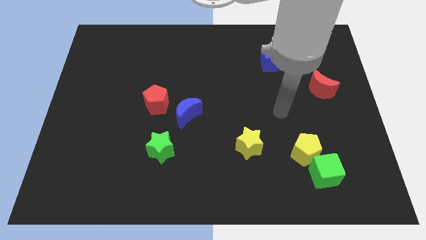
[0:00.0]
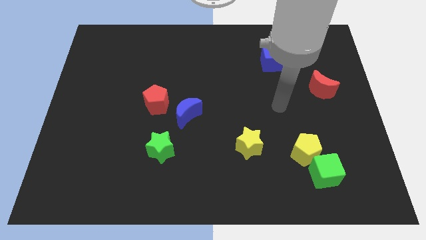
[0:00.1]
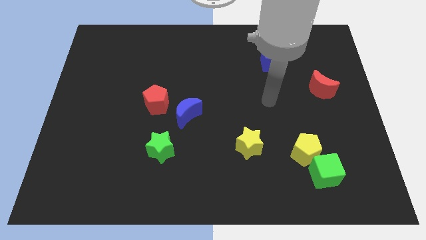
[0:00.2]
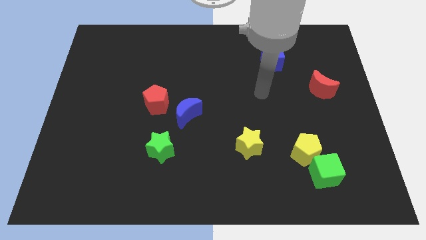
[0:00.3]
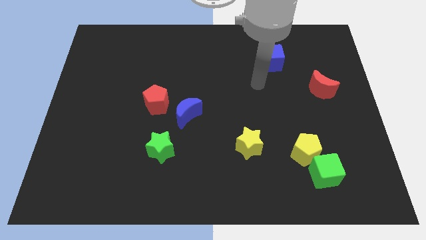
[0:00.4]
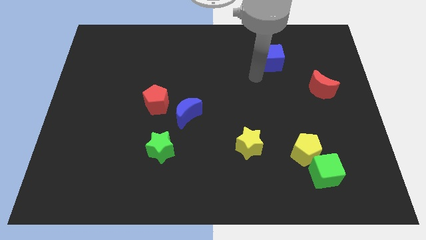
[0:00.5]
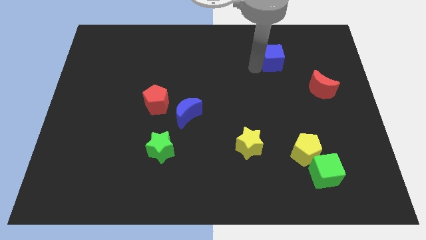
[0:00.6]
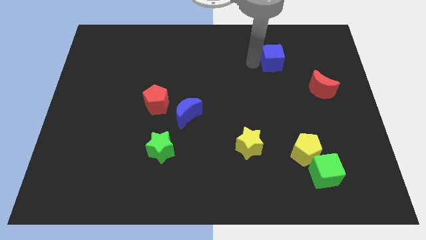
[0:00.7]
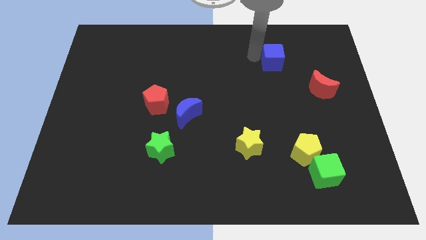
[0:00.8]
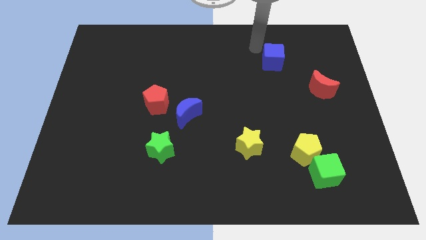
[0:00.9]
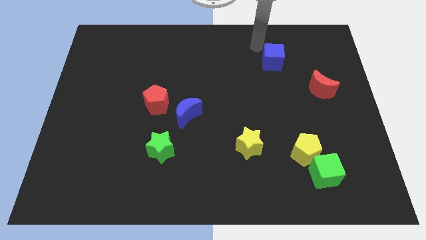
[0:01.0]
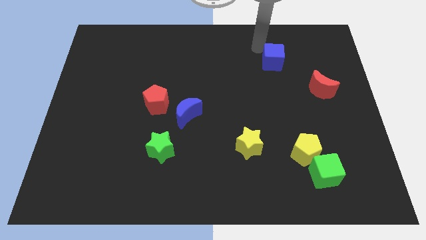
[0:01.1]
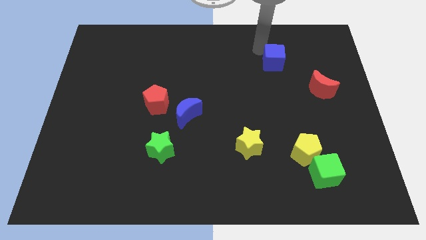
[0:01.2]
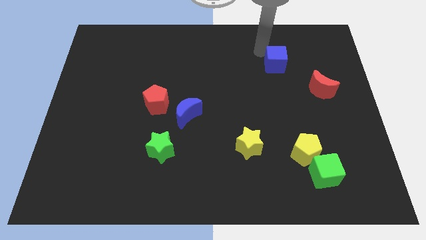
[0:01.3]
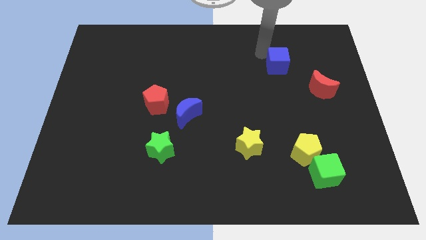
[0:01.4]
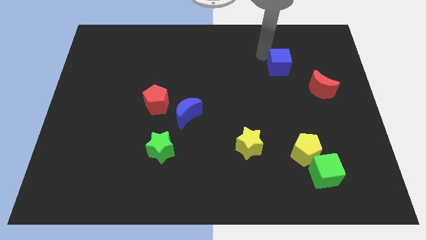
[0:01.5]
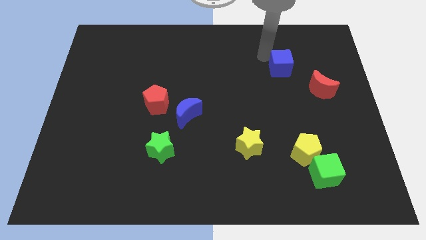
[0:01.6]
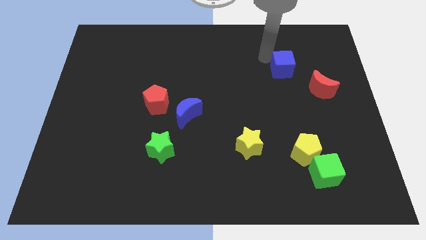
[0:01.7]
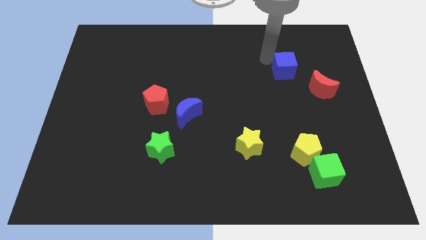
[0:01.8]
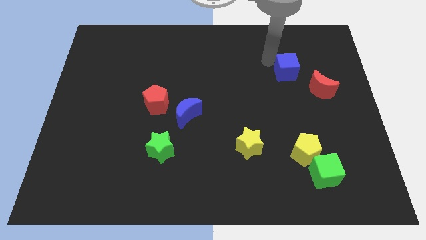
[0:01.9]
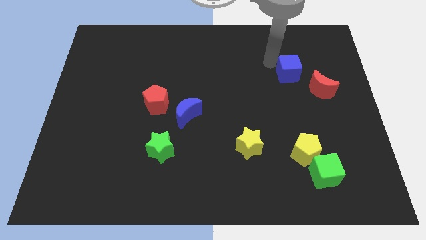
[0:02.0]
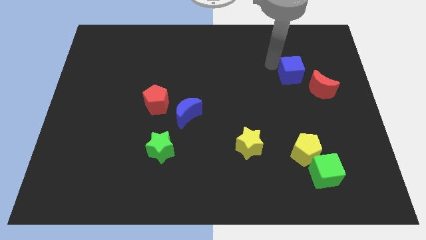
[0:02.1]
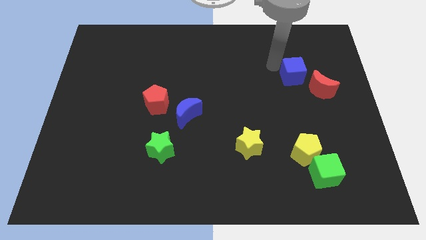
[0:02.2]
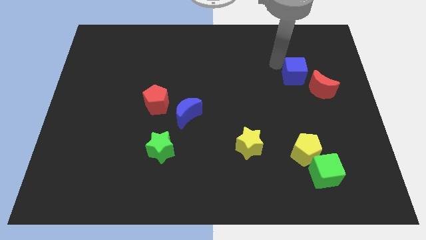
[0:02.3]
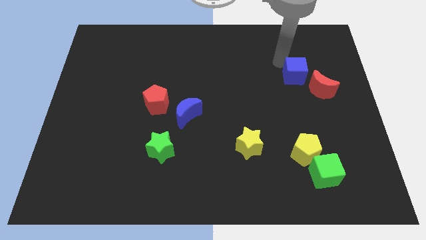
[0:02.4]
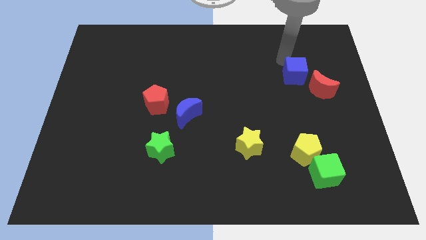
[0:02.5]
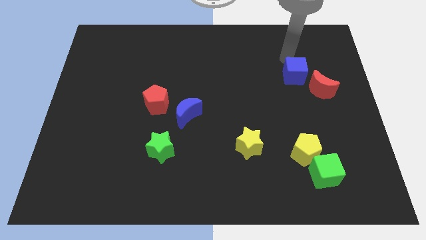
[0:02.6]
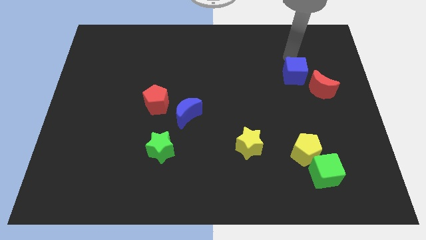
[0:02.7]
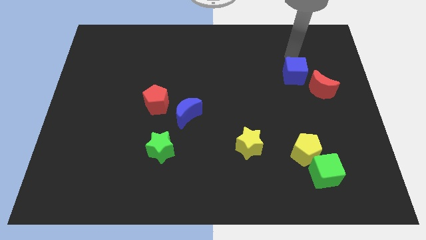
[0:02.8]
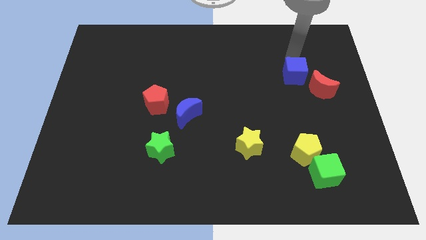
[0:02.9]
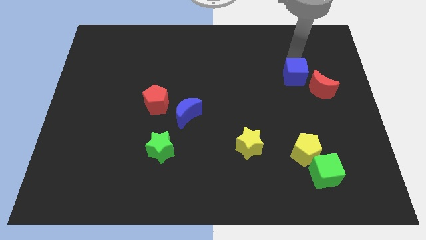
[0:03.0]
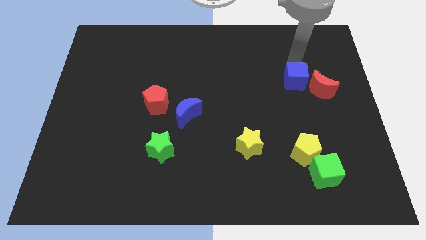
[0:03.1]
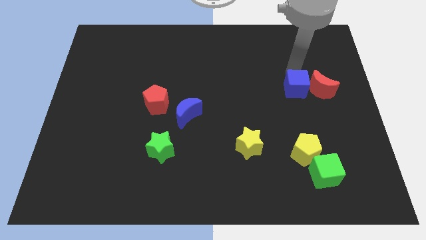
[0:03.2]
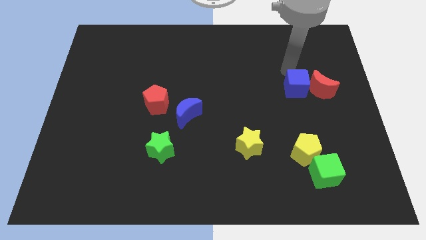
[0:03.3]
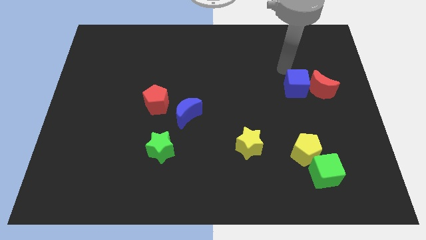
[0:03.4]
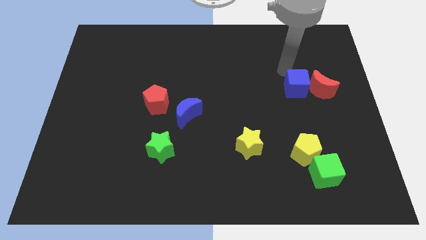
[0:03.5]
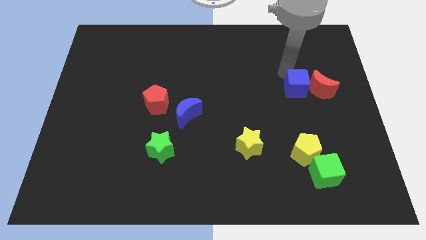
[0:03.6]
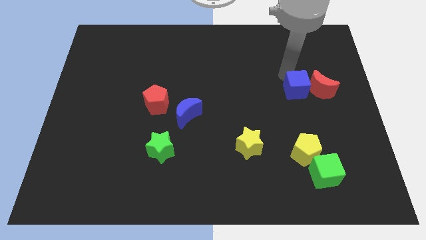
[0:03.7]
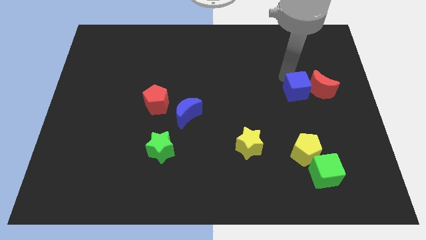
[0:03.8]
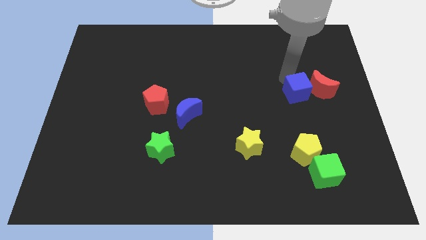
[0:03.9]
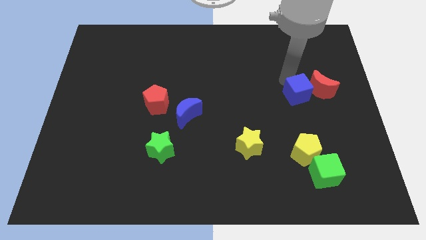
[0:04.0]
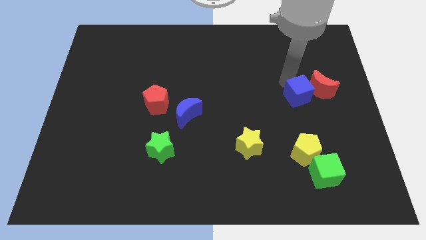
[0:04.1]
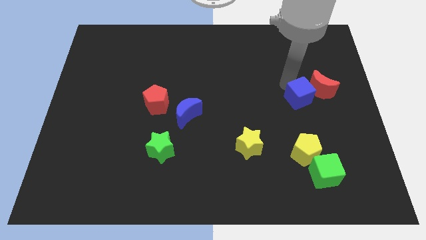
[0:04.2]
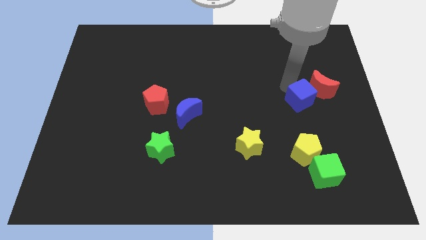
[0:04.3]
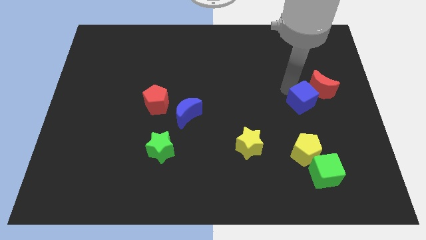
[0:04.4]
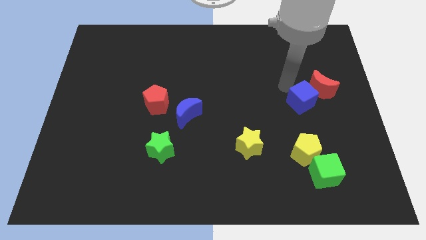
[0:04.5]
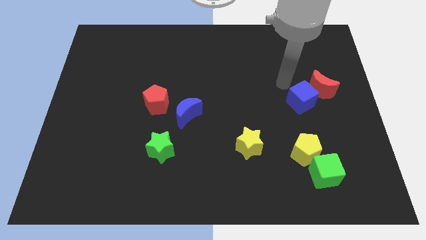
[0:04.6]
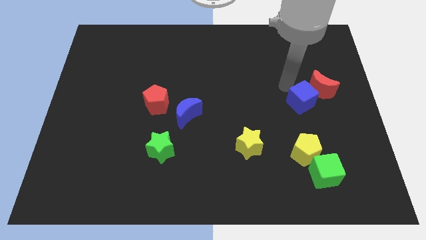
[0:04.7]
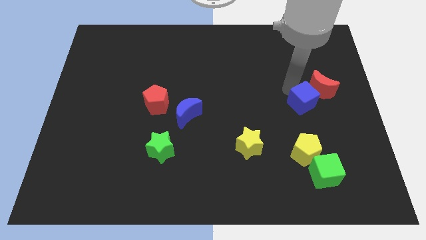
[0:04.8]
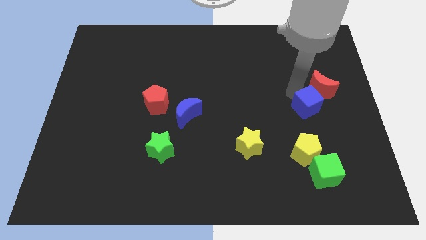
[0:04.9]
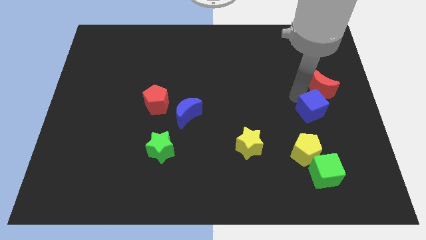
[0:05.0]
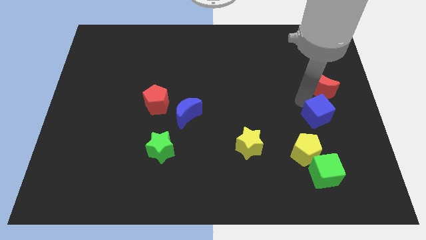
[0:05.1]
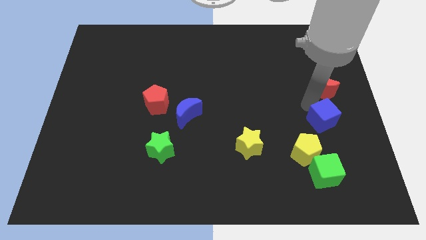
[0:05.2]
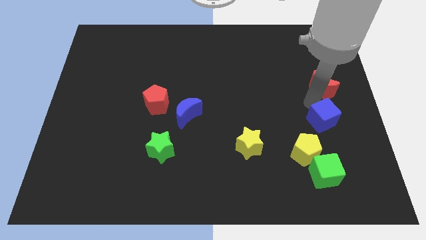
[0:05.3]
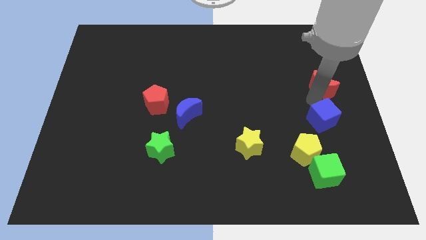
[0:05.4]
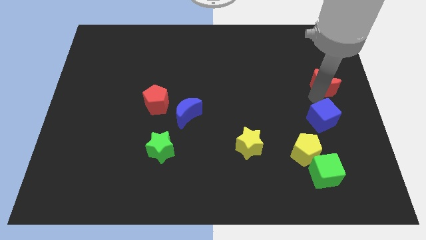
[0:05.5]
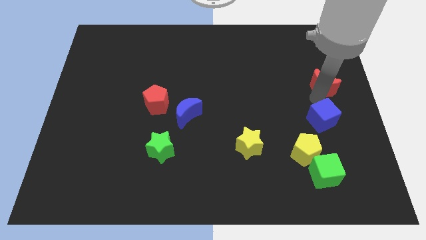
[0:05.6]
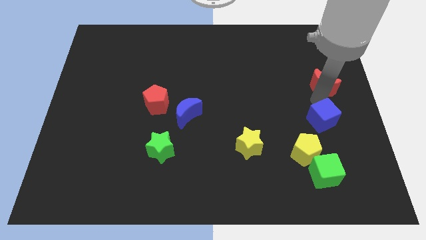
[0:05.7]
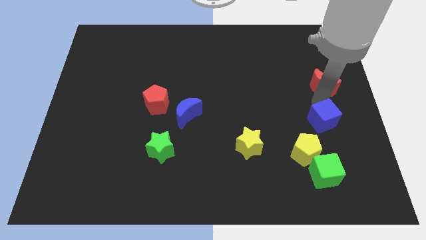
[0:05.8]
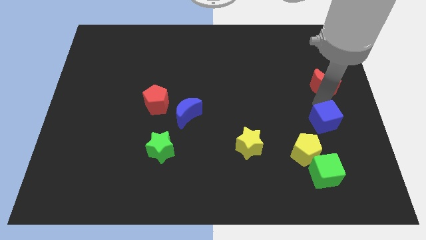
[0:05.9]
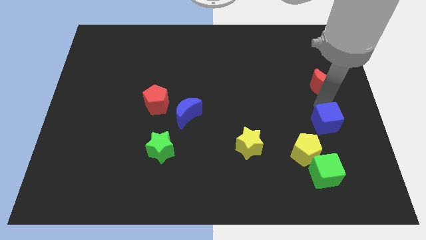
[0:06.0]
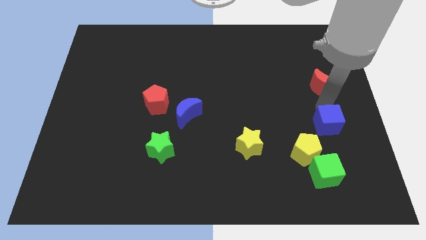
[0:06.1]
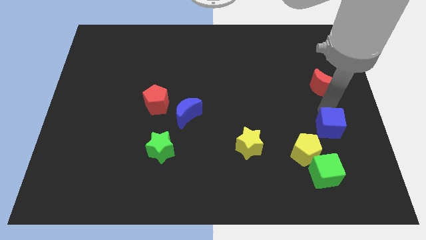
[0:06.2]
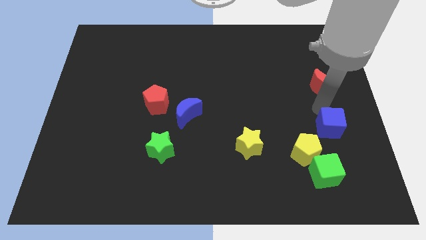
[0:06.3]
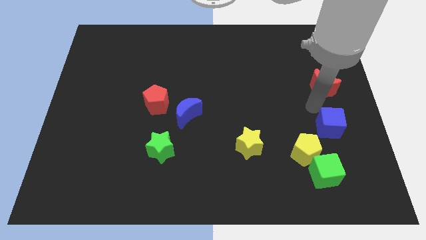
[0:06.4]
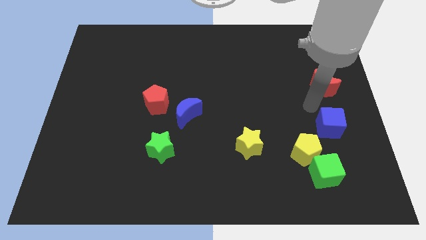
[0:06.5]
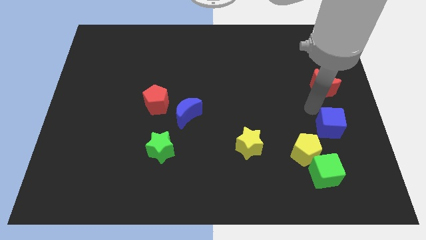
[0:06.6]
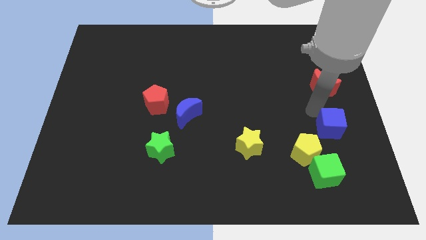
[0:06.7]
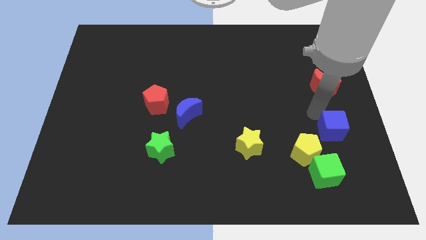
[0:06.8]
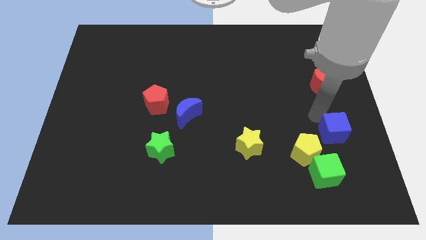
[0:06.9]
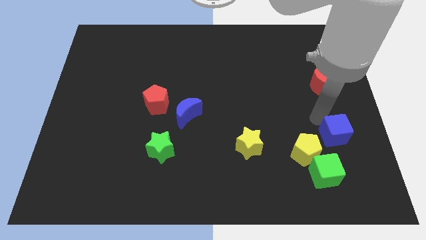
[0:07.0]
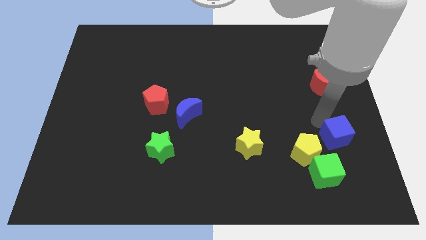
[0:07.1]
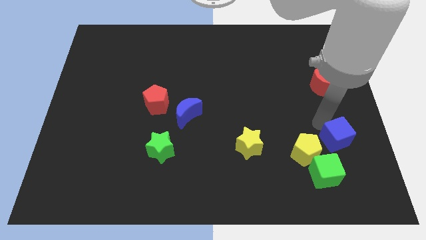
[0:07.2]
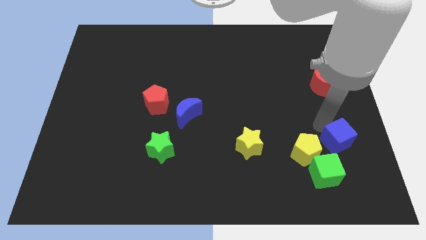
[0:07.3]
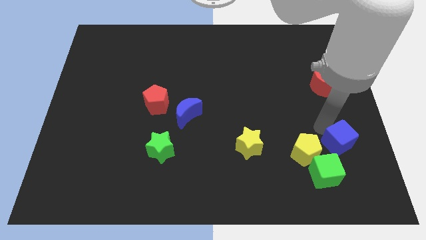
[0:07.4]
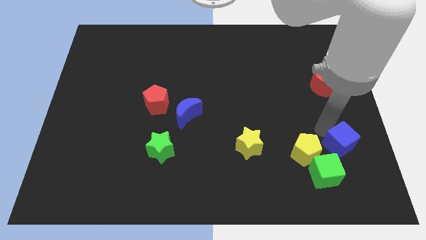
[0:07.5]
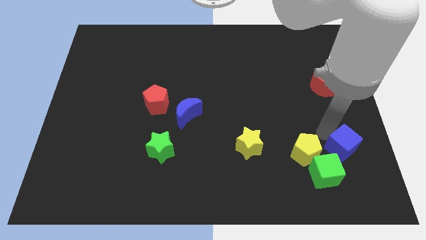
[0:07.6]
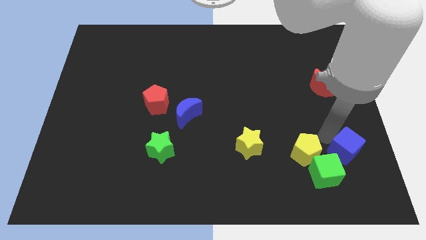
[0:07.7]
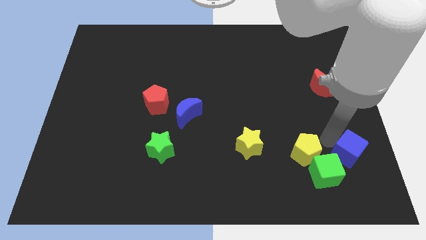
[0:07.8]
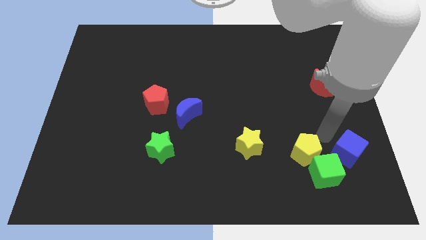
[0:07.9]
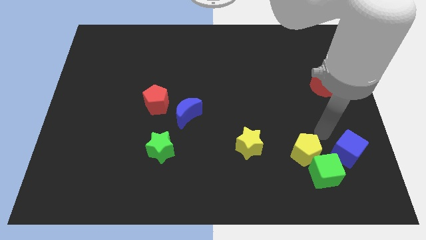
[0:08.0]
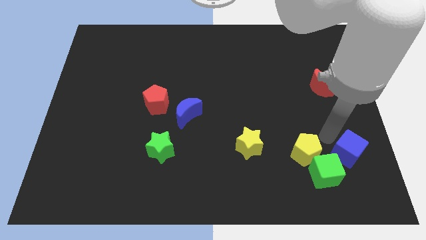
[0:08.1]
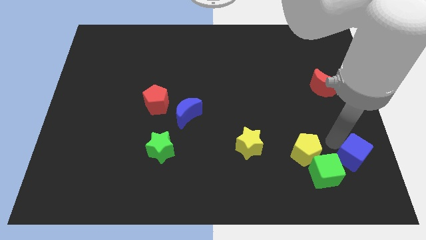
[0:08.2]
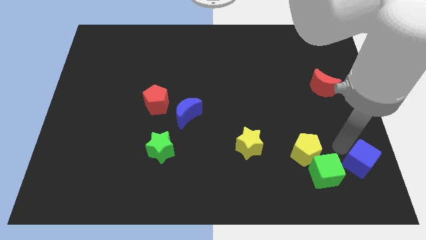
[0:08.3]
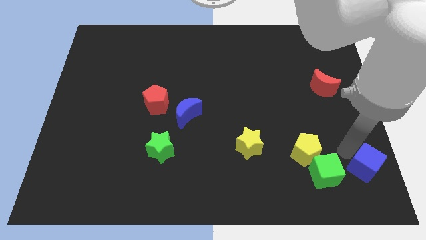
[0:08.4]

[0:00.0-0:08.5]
slide the blue cube to the lower right corner
